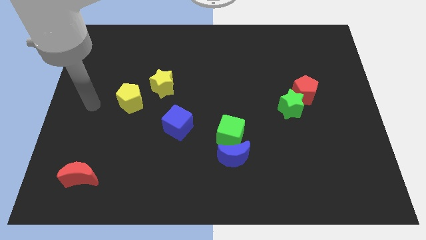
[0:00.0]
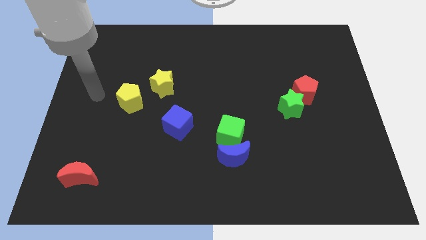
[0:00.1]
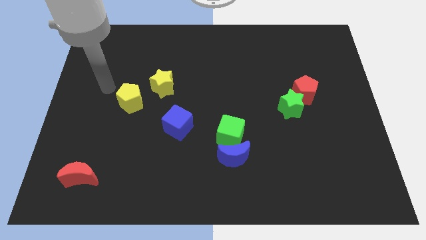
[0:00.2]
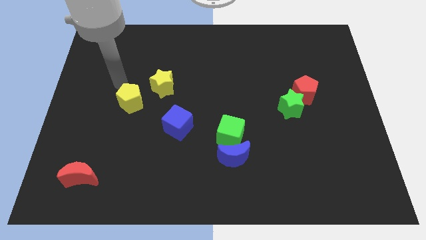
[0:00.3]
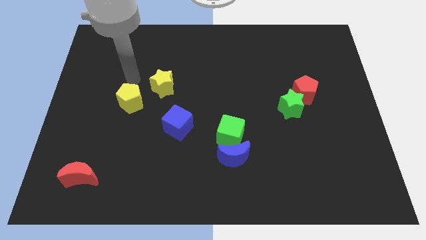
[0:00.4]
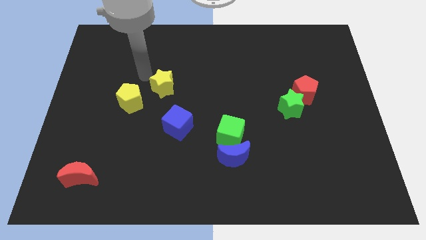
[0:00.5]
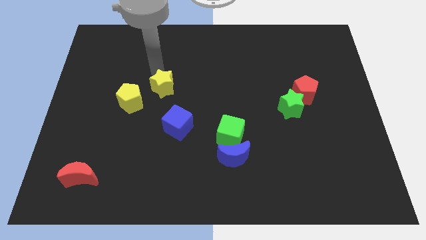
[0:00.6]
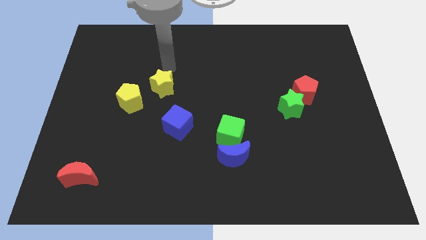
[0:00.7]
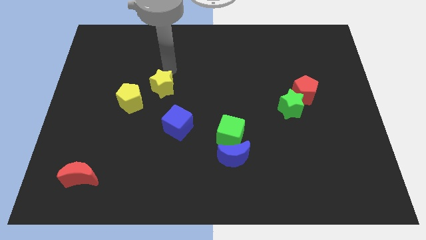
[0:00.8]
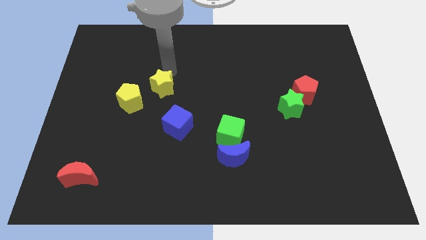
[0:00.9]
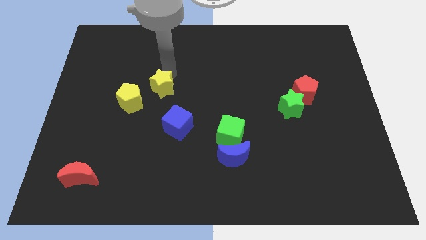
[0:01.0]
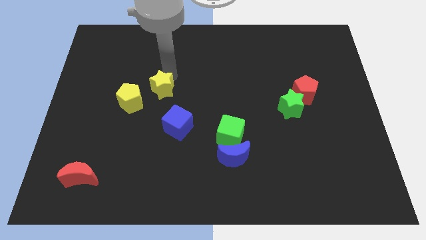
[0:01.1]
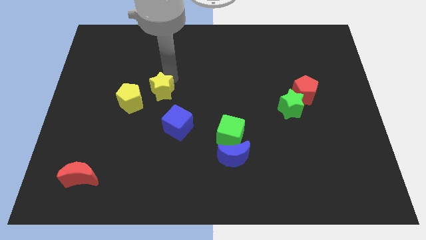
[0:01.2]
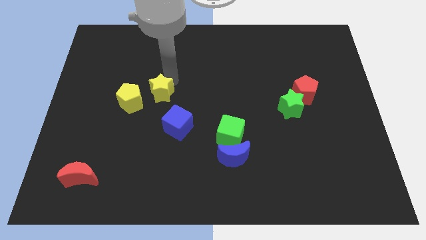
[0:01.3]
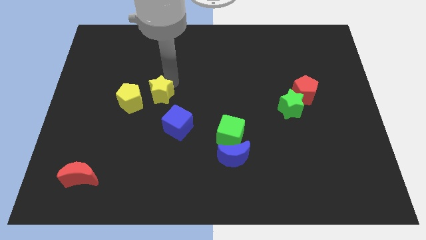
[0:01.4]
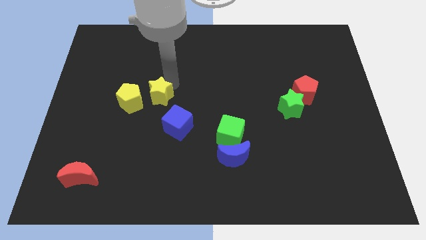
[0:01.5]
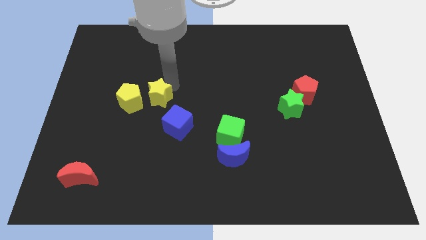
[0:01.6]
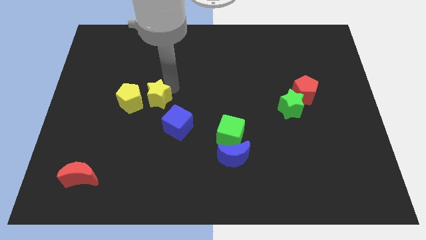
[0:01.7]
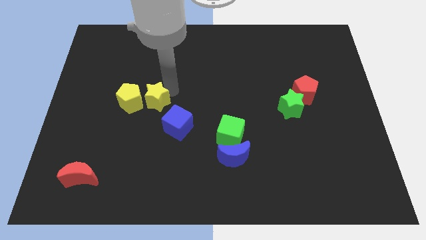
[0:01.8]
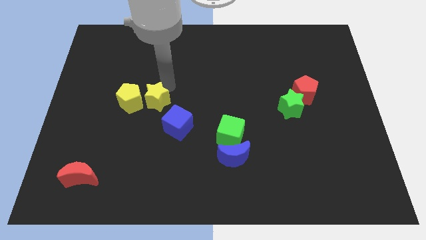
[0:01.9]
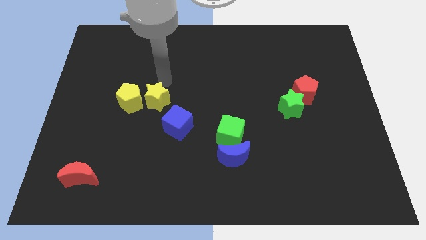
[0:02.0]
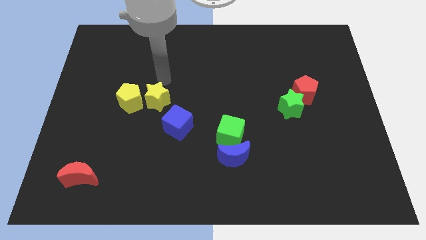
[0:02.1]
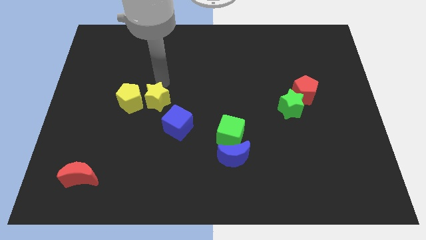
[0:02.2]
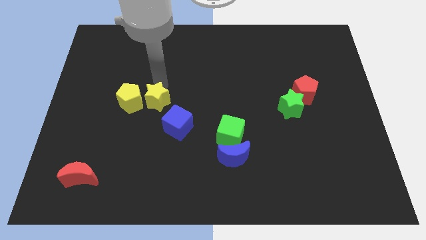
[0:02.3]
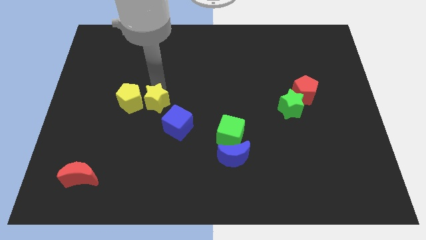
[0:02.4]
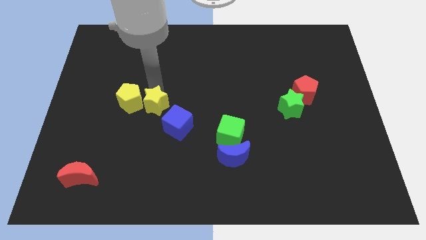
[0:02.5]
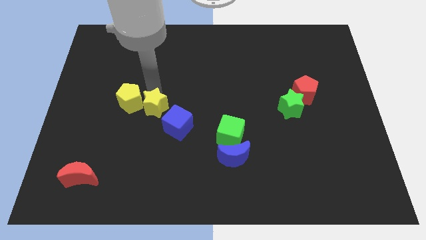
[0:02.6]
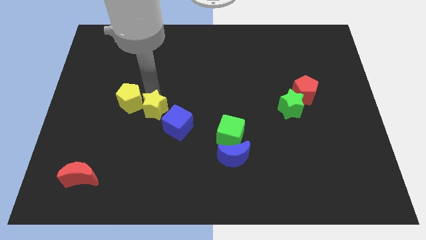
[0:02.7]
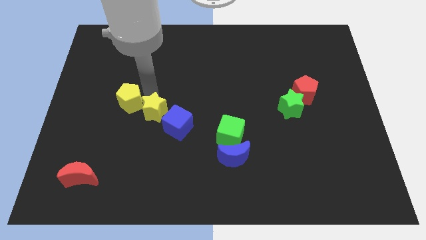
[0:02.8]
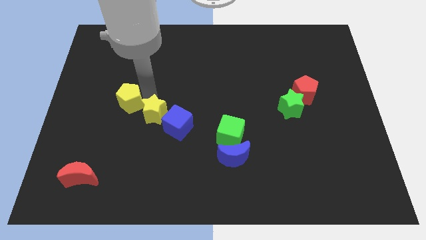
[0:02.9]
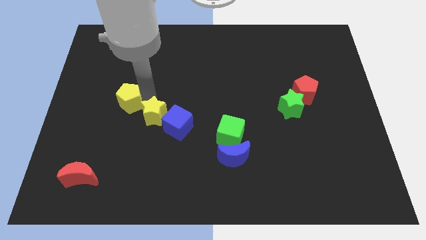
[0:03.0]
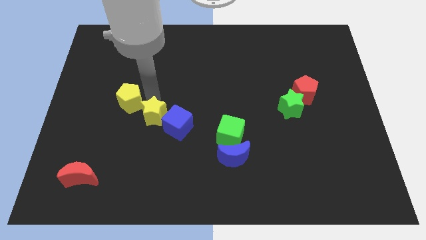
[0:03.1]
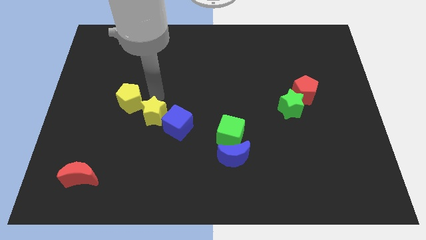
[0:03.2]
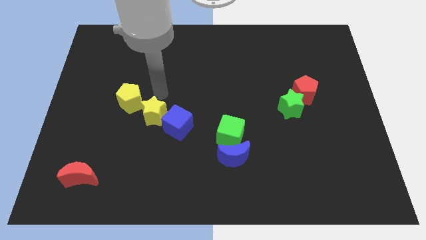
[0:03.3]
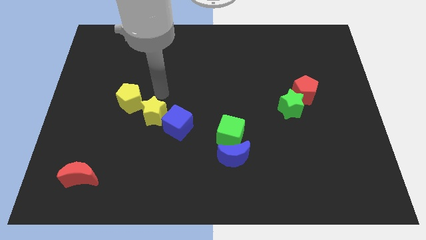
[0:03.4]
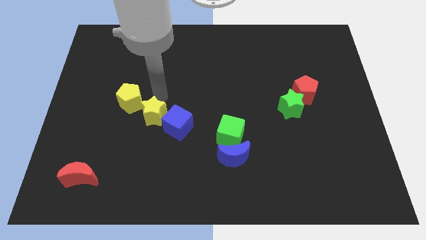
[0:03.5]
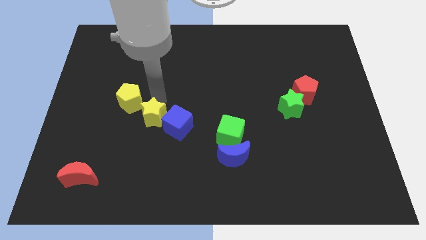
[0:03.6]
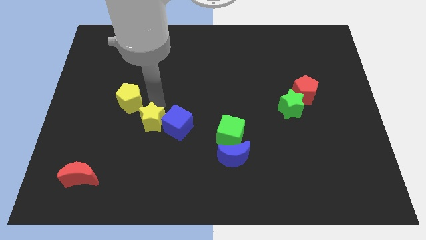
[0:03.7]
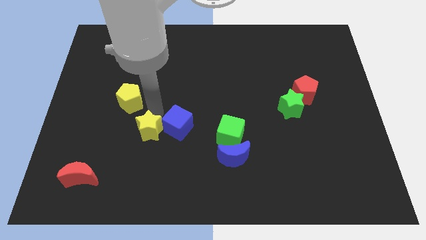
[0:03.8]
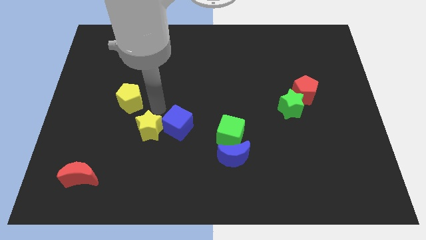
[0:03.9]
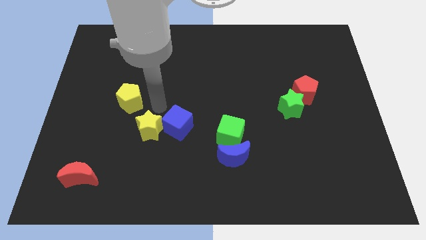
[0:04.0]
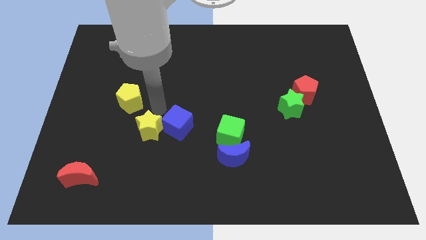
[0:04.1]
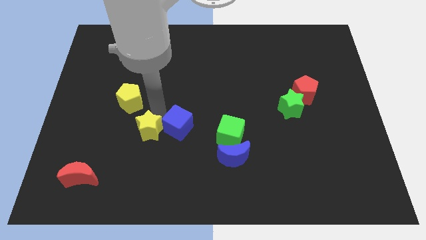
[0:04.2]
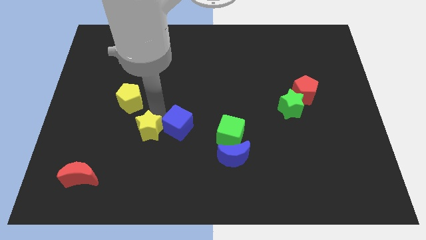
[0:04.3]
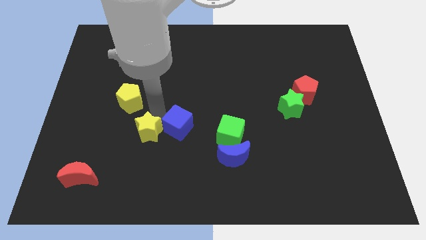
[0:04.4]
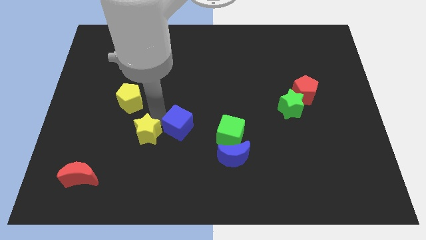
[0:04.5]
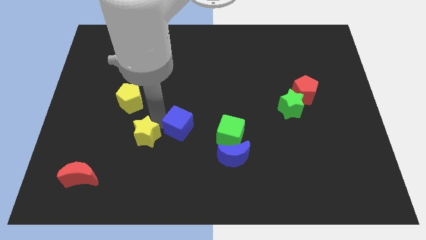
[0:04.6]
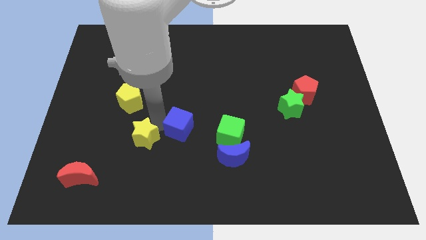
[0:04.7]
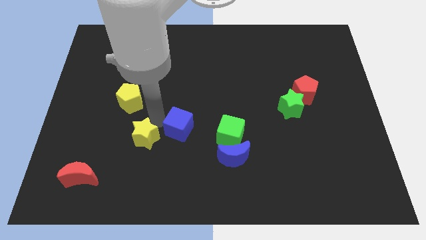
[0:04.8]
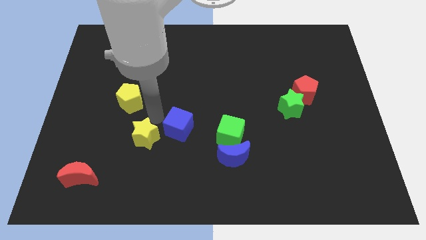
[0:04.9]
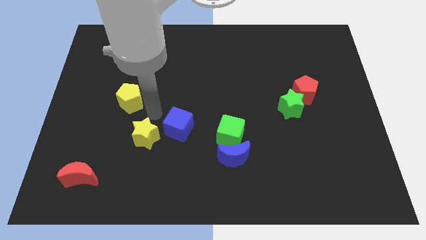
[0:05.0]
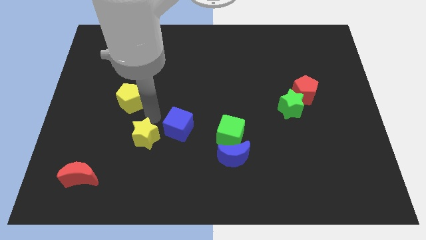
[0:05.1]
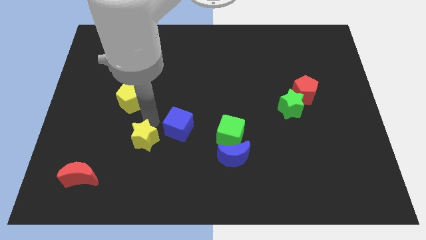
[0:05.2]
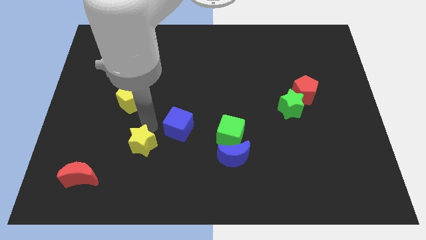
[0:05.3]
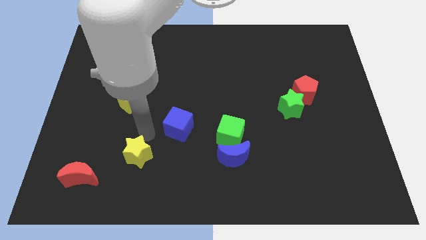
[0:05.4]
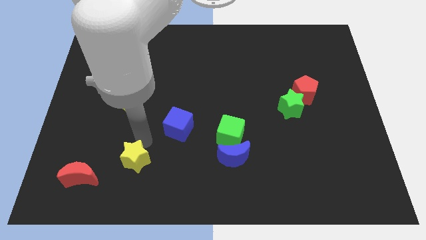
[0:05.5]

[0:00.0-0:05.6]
slide the yellow star to the right side of the red moon

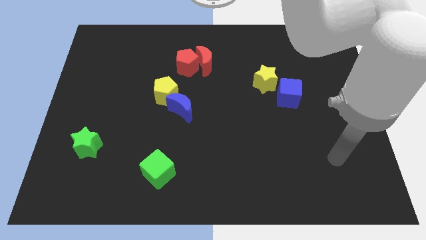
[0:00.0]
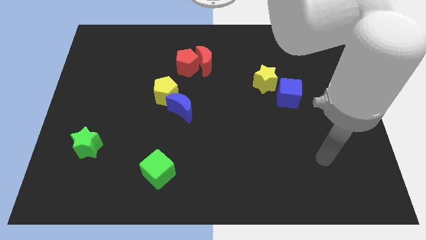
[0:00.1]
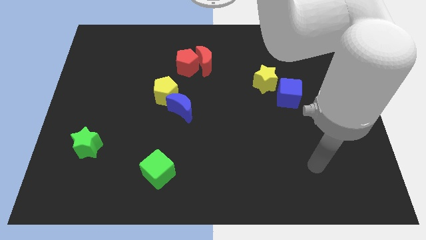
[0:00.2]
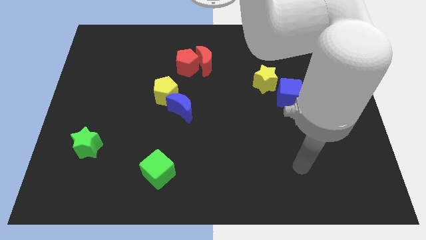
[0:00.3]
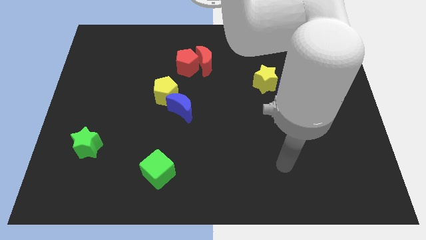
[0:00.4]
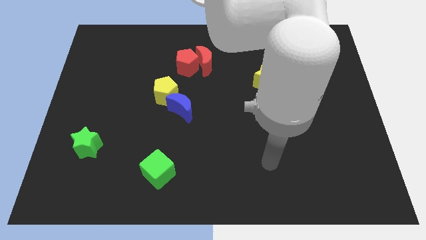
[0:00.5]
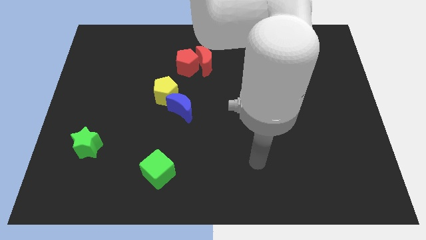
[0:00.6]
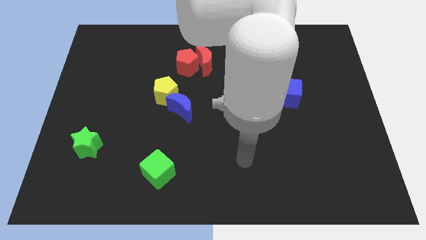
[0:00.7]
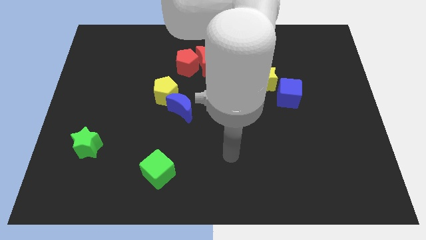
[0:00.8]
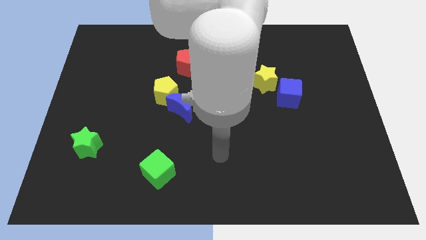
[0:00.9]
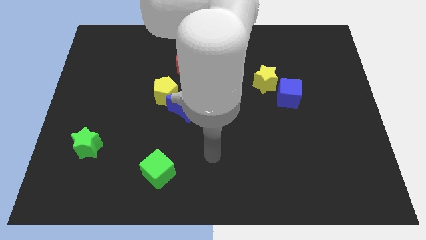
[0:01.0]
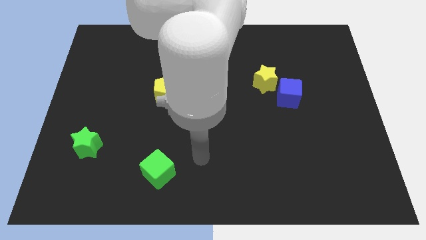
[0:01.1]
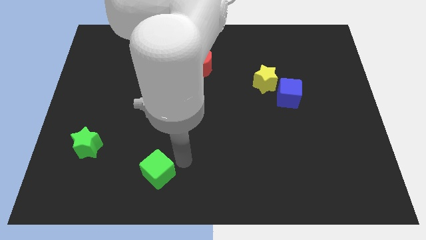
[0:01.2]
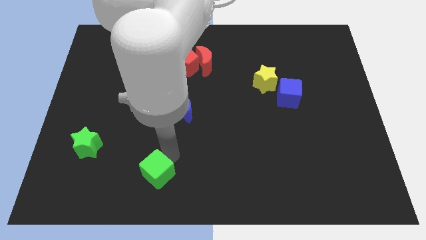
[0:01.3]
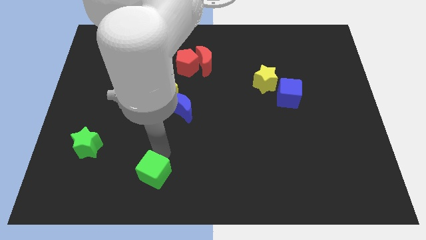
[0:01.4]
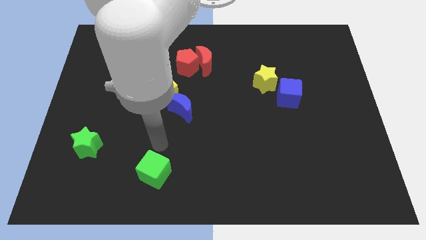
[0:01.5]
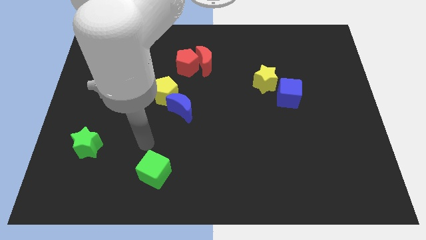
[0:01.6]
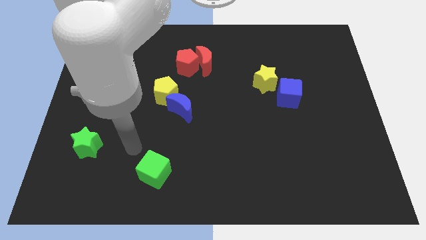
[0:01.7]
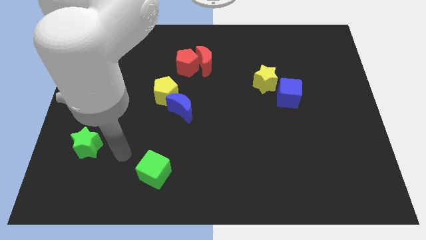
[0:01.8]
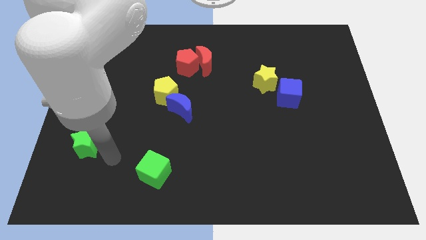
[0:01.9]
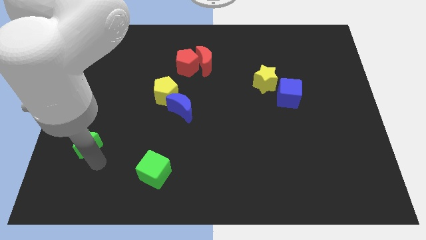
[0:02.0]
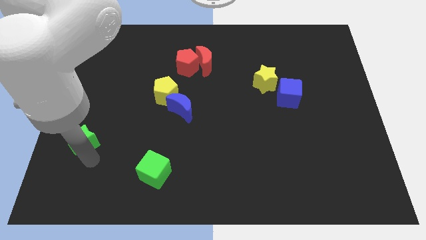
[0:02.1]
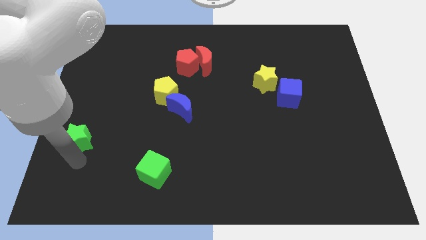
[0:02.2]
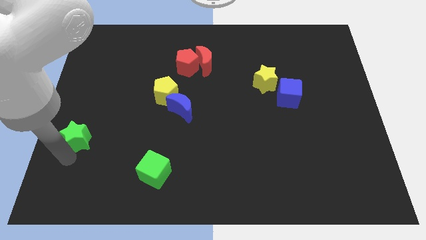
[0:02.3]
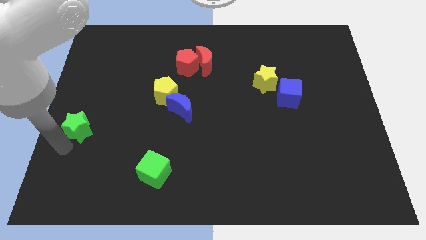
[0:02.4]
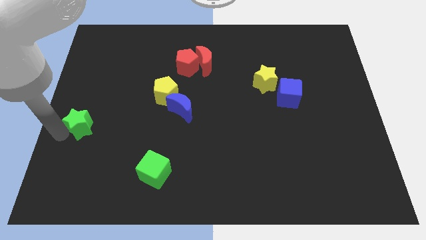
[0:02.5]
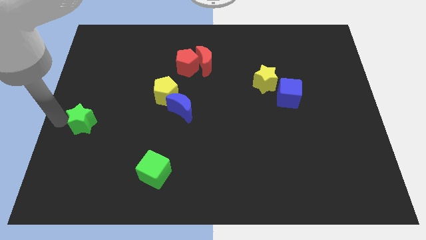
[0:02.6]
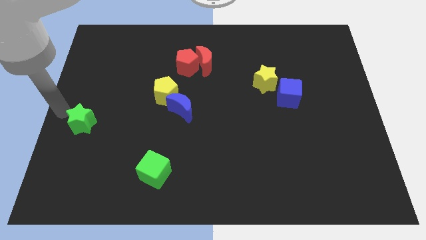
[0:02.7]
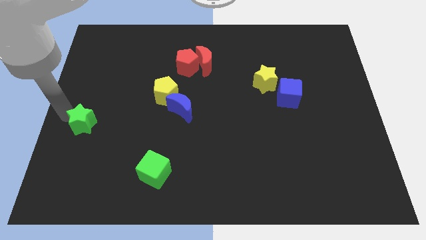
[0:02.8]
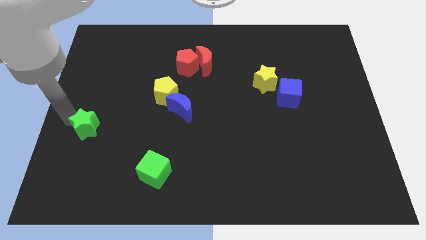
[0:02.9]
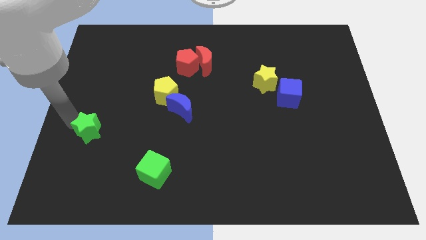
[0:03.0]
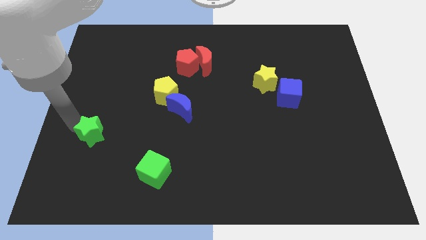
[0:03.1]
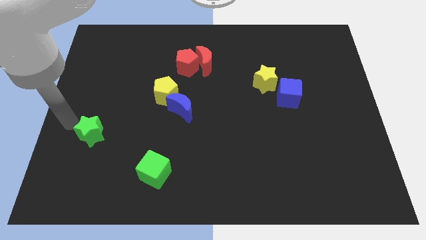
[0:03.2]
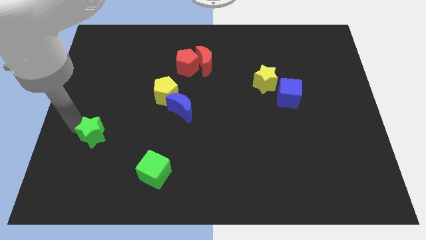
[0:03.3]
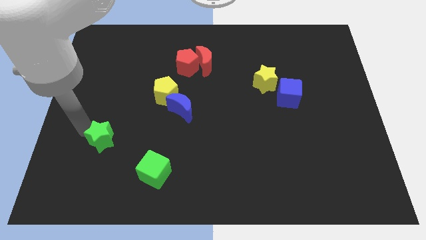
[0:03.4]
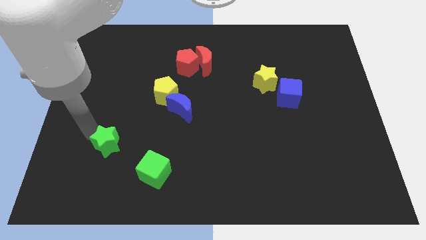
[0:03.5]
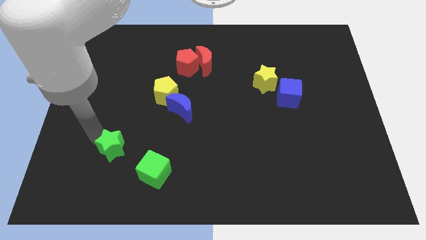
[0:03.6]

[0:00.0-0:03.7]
put the green star diagonally up and to the left of the green cube
